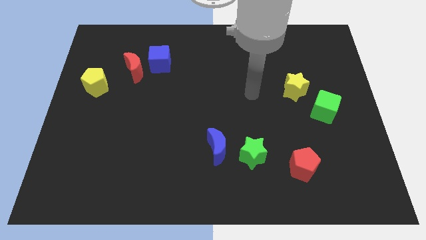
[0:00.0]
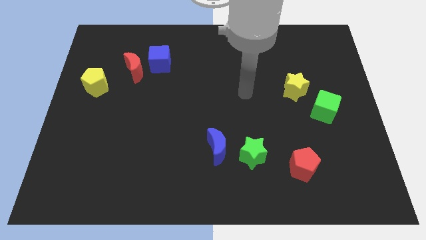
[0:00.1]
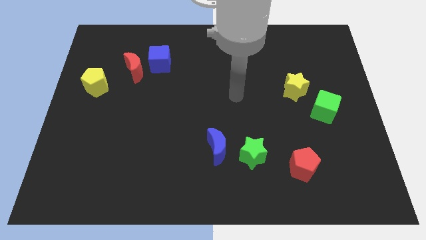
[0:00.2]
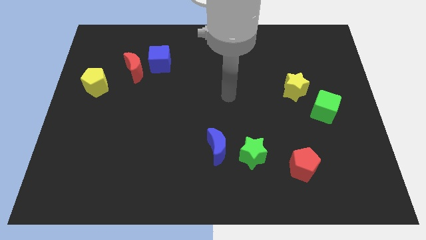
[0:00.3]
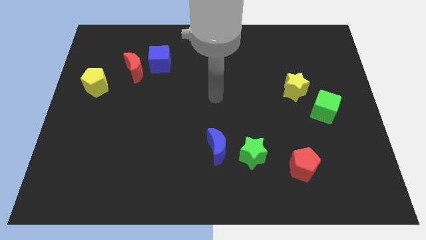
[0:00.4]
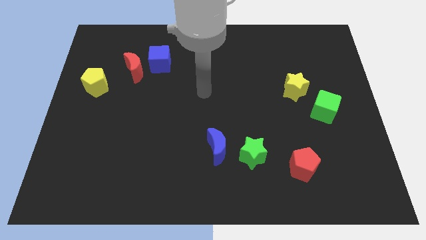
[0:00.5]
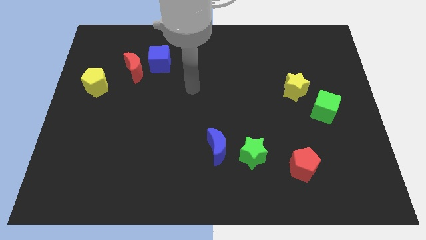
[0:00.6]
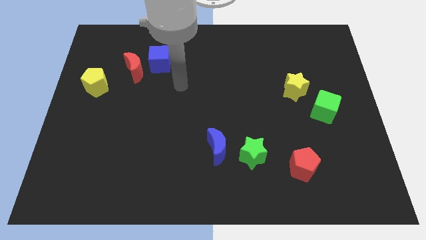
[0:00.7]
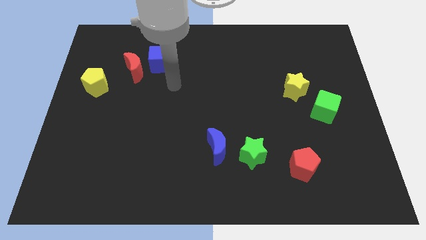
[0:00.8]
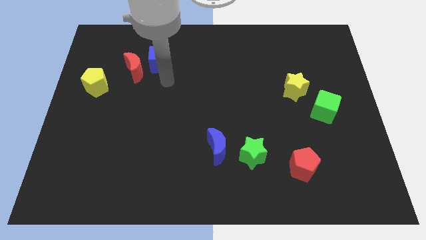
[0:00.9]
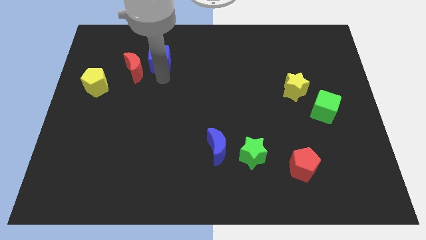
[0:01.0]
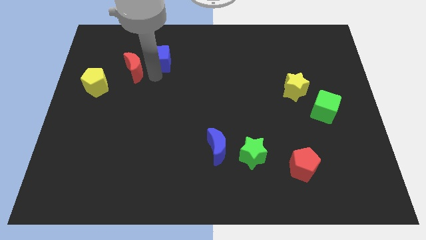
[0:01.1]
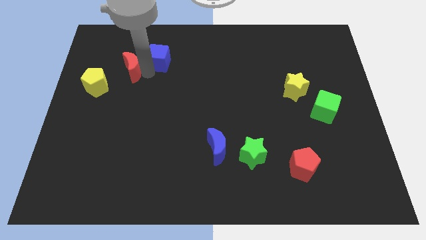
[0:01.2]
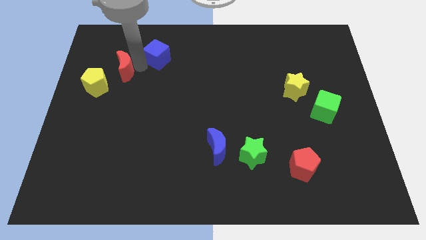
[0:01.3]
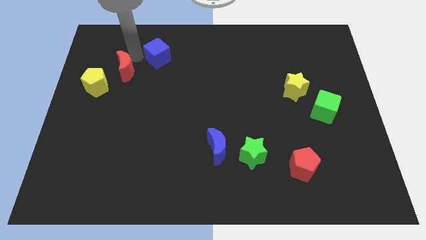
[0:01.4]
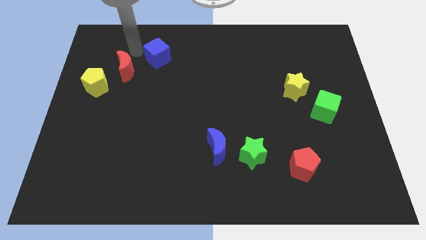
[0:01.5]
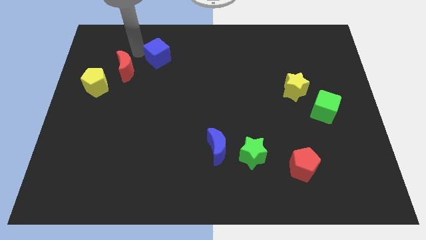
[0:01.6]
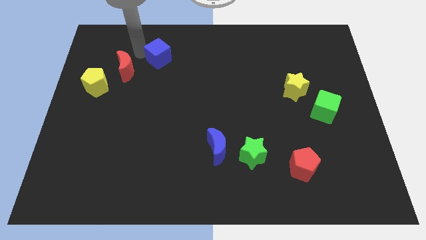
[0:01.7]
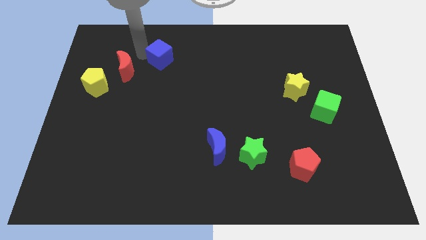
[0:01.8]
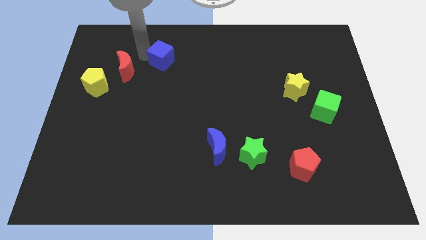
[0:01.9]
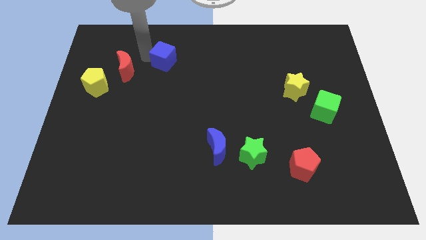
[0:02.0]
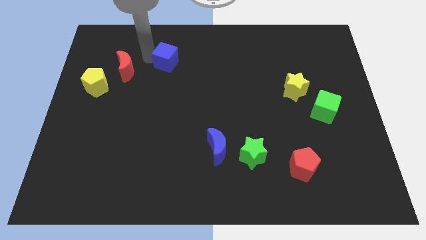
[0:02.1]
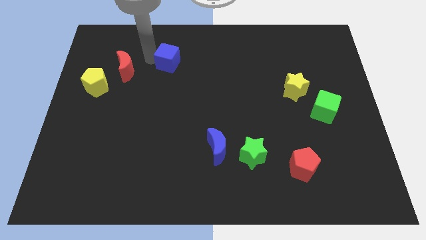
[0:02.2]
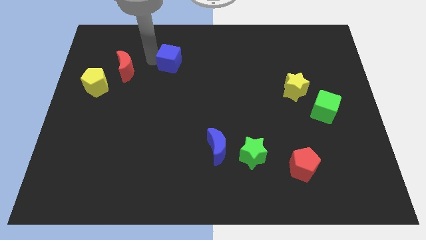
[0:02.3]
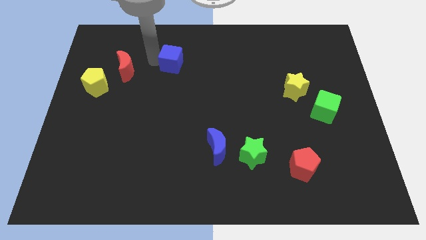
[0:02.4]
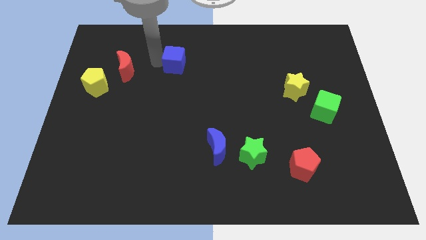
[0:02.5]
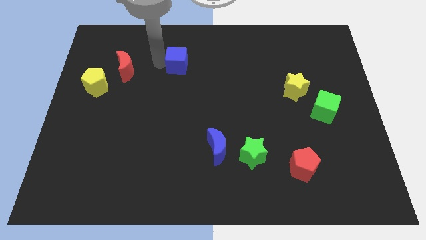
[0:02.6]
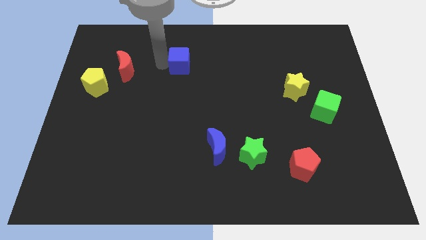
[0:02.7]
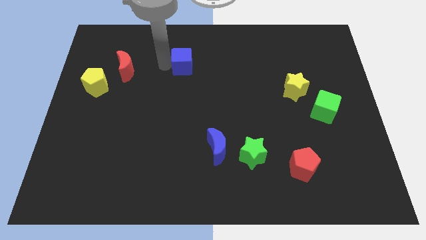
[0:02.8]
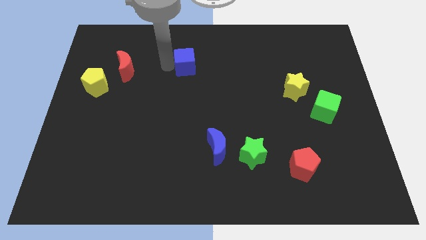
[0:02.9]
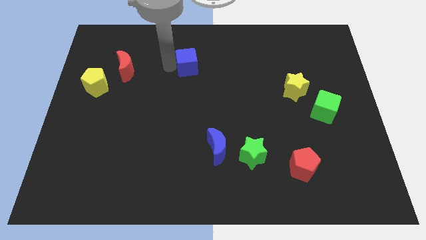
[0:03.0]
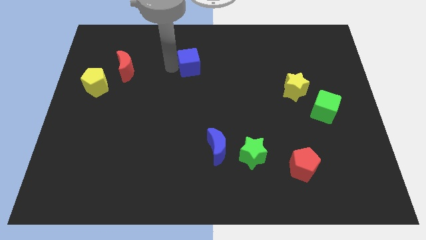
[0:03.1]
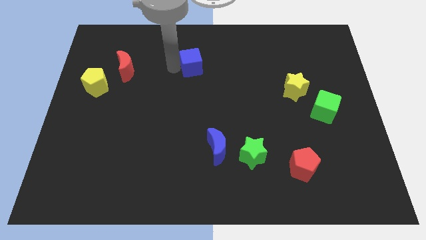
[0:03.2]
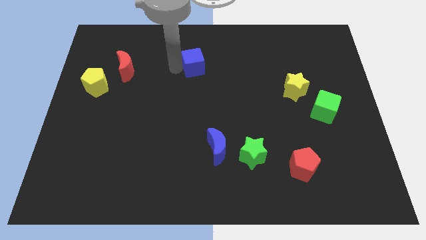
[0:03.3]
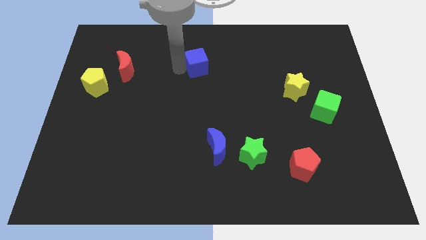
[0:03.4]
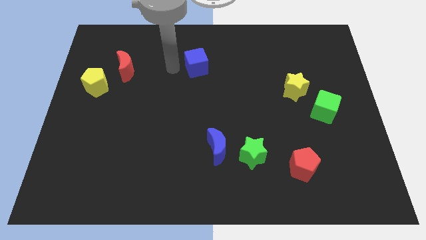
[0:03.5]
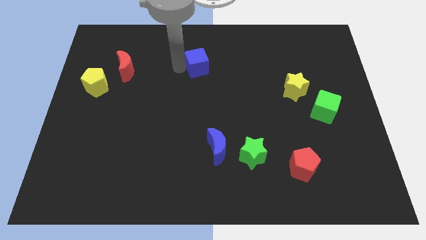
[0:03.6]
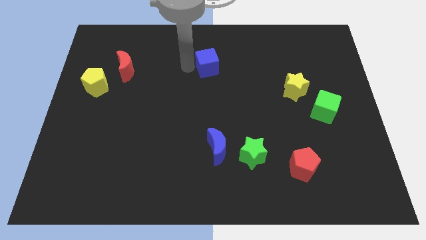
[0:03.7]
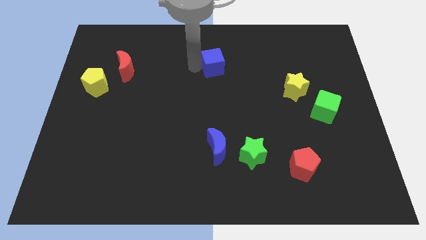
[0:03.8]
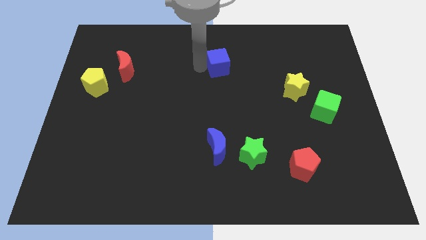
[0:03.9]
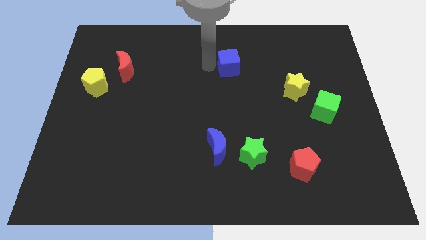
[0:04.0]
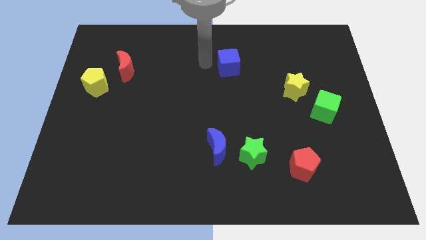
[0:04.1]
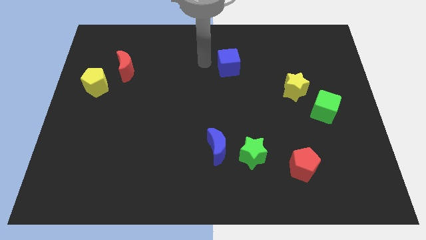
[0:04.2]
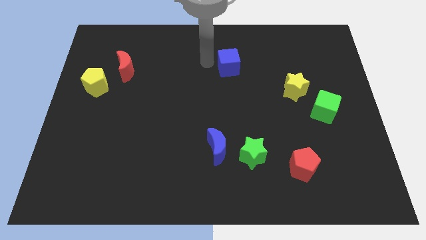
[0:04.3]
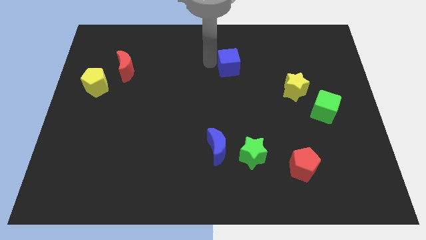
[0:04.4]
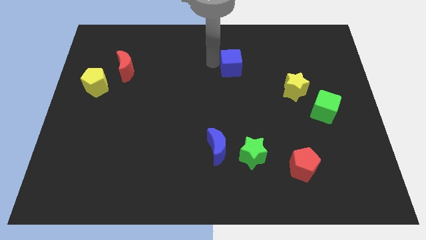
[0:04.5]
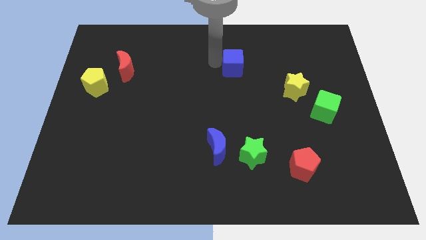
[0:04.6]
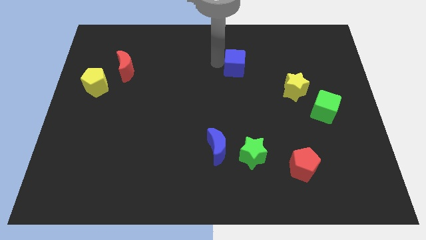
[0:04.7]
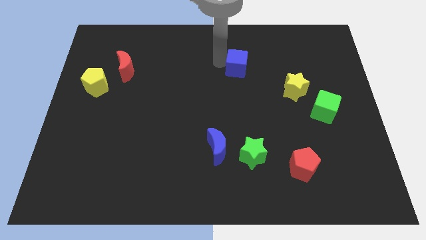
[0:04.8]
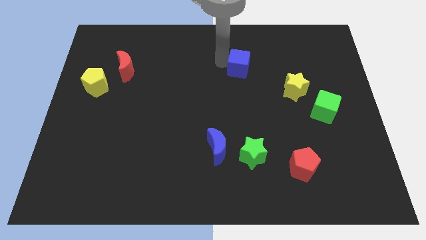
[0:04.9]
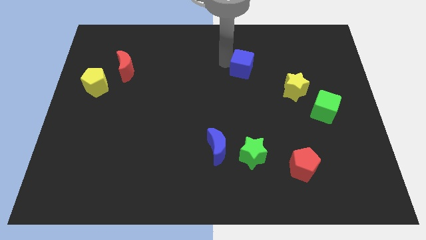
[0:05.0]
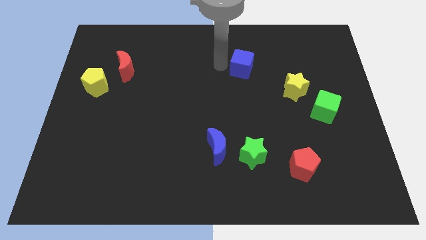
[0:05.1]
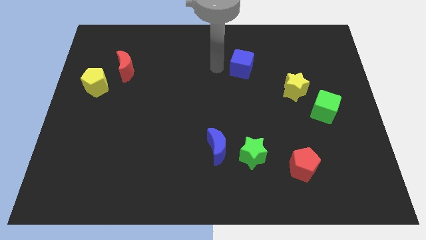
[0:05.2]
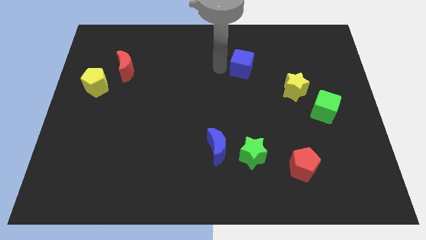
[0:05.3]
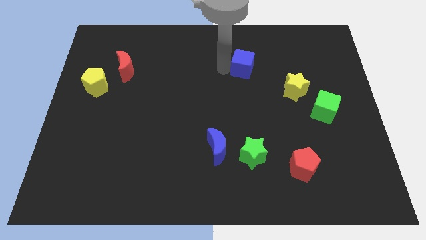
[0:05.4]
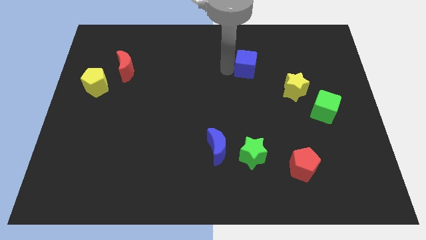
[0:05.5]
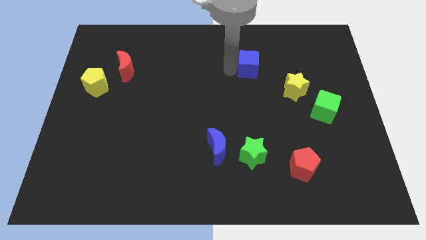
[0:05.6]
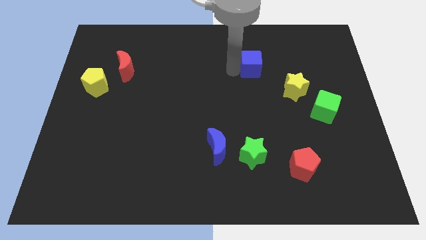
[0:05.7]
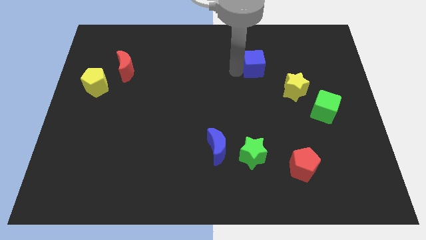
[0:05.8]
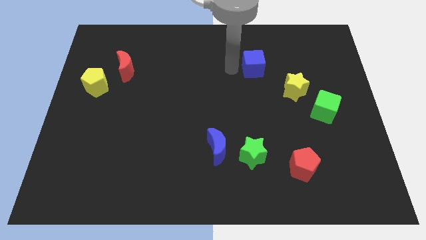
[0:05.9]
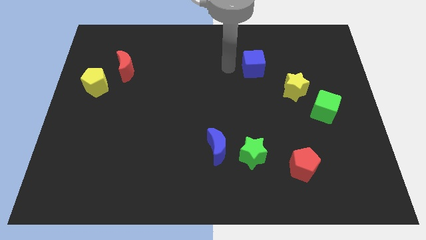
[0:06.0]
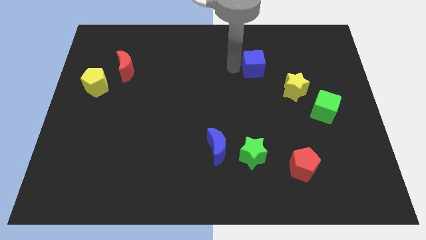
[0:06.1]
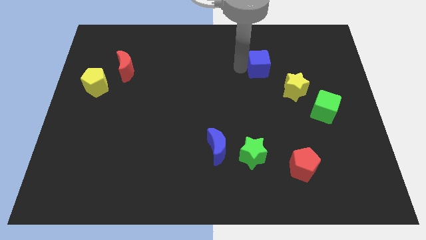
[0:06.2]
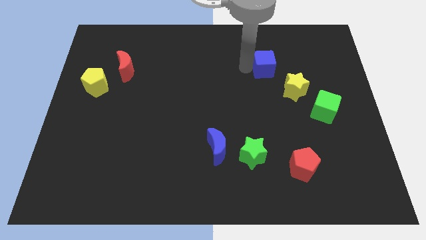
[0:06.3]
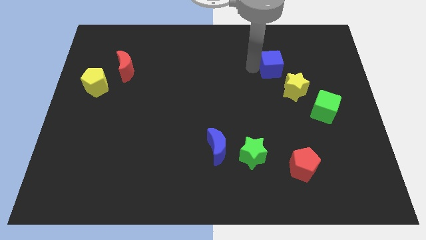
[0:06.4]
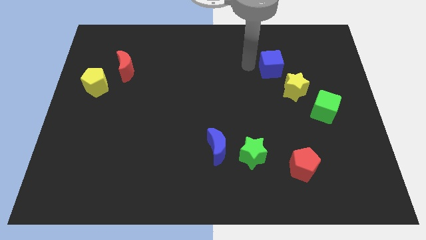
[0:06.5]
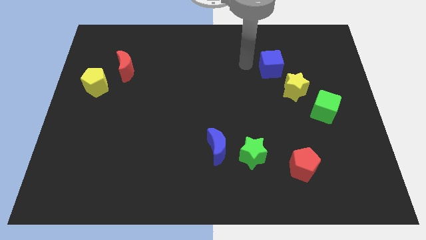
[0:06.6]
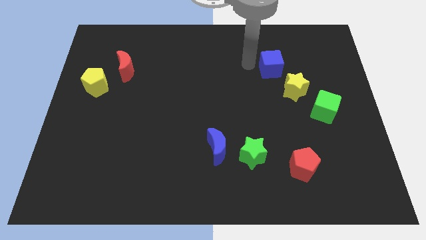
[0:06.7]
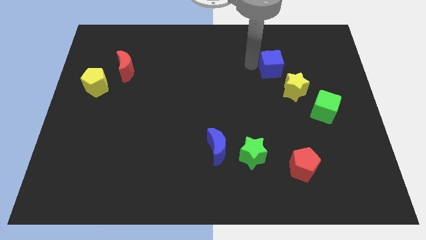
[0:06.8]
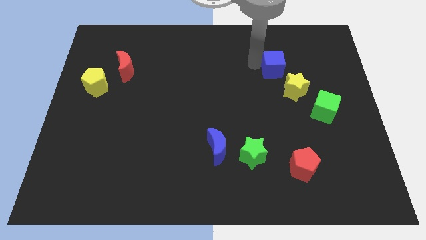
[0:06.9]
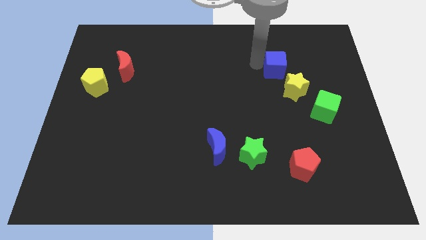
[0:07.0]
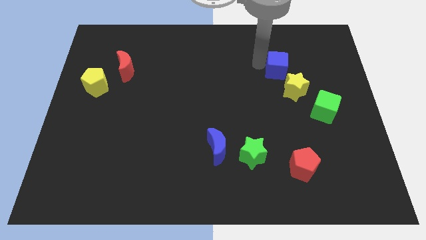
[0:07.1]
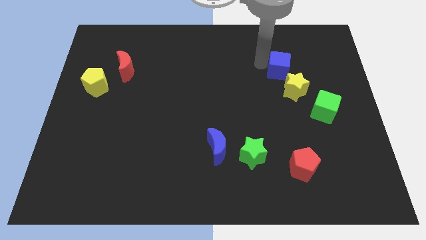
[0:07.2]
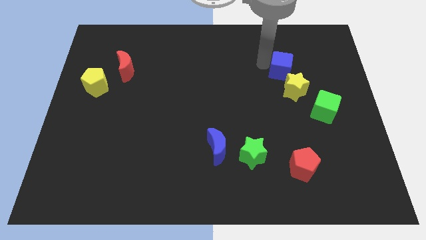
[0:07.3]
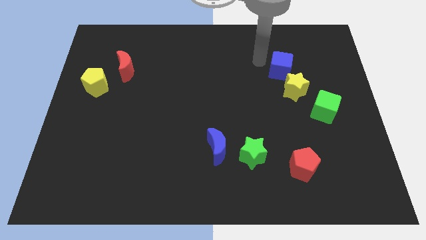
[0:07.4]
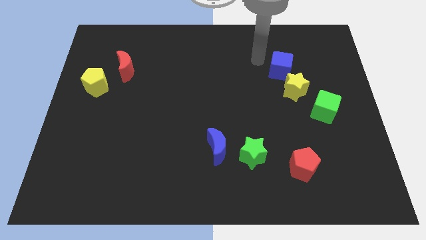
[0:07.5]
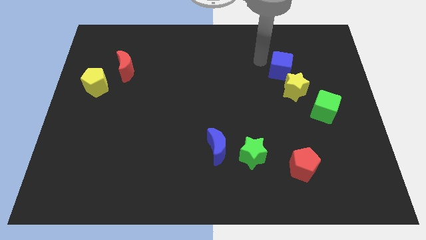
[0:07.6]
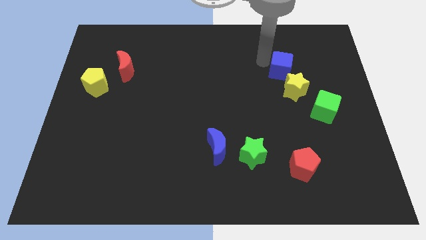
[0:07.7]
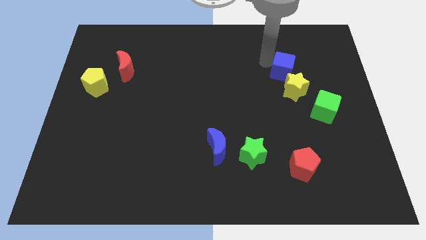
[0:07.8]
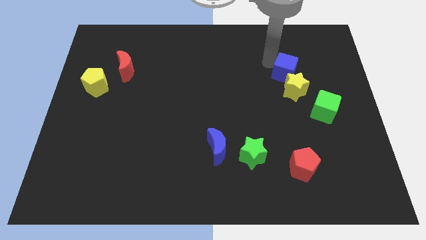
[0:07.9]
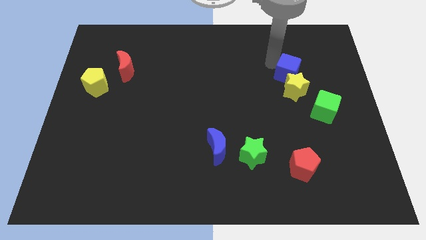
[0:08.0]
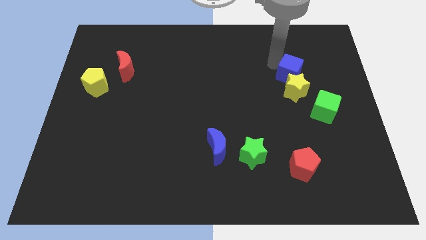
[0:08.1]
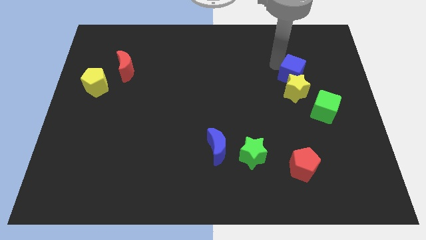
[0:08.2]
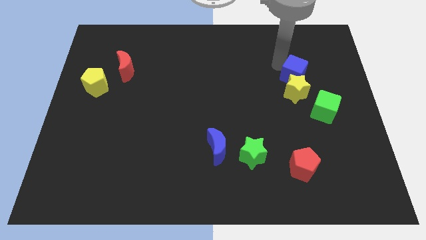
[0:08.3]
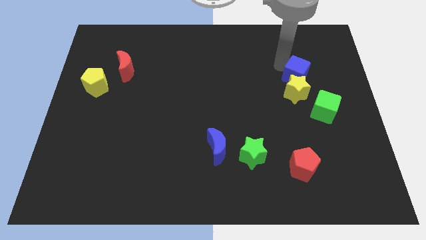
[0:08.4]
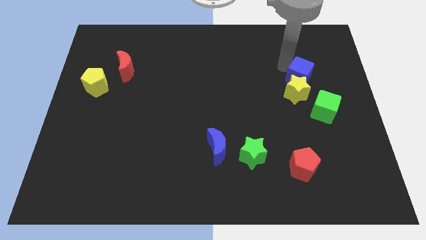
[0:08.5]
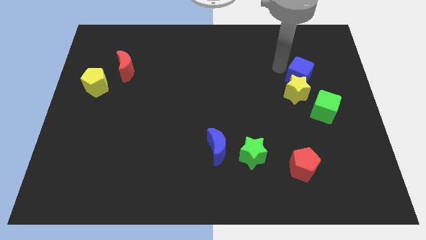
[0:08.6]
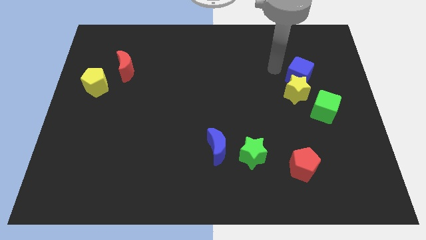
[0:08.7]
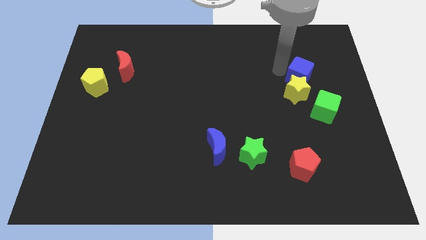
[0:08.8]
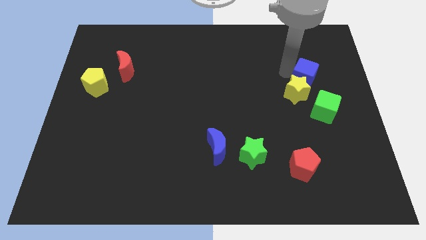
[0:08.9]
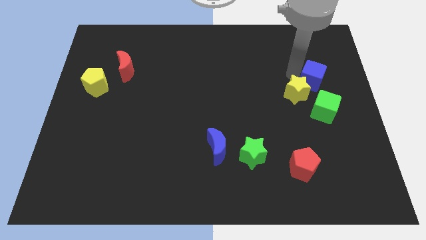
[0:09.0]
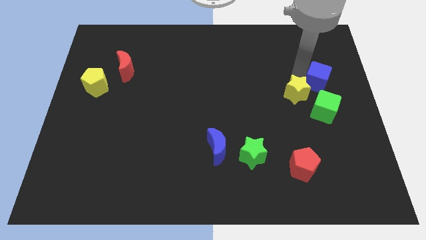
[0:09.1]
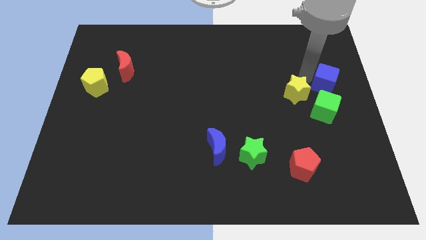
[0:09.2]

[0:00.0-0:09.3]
push the blue cube to the right side of the board
